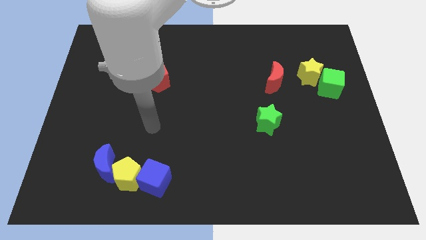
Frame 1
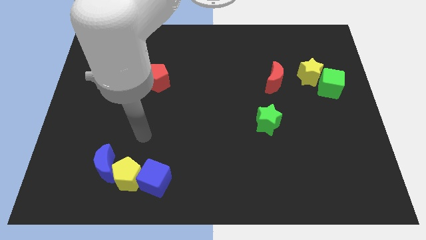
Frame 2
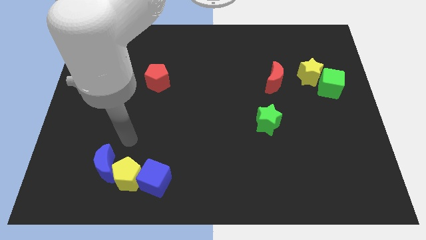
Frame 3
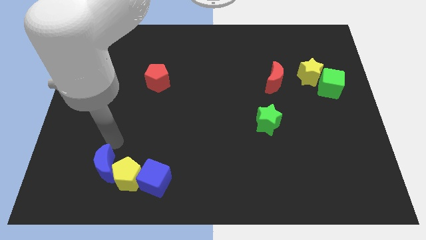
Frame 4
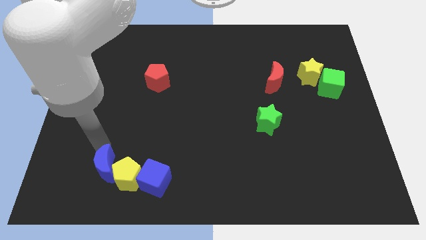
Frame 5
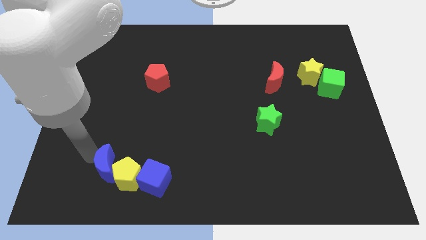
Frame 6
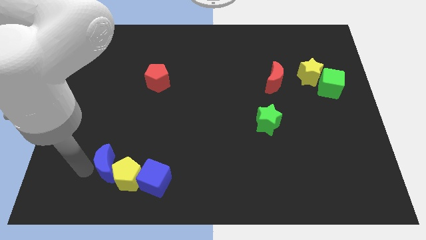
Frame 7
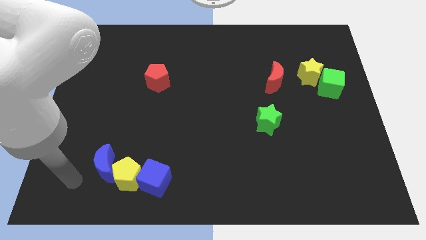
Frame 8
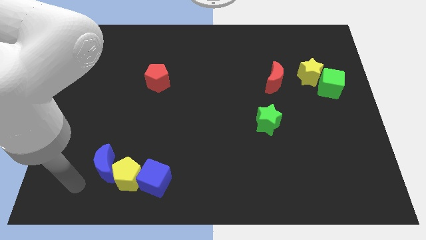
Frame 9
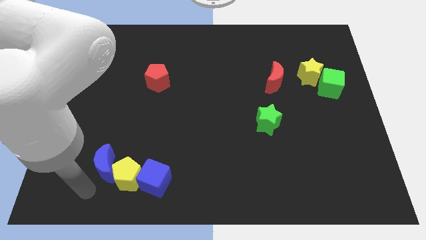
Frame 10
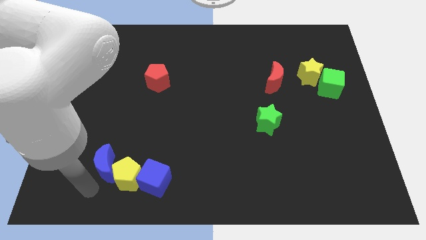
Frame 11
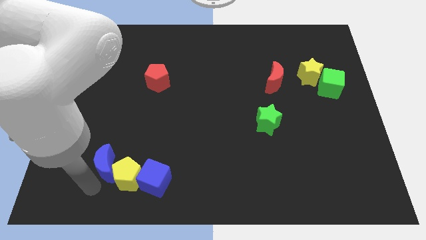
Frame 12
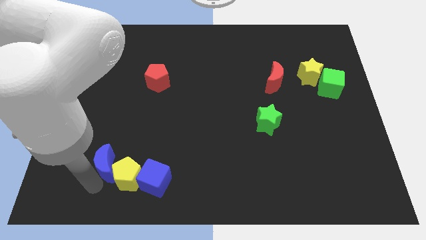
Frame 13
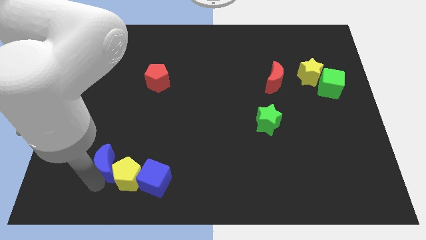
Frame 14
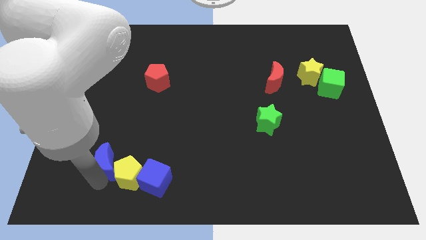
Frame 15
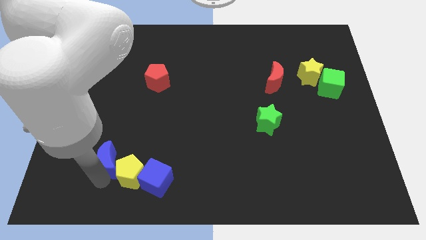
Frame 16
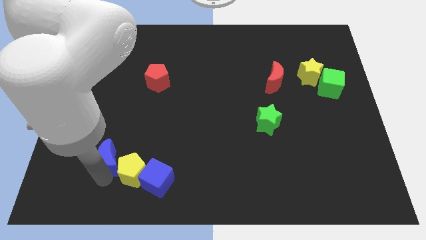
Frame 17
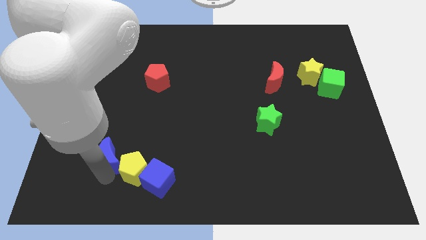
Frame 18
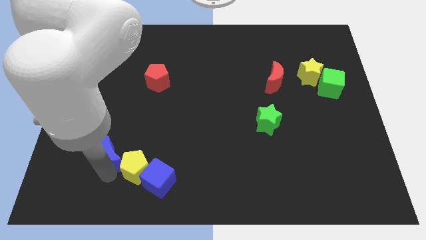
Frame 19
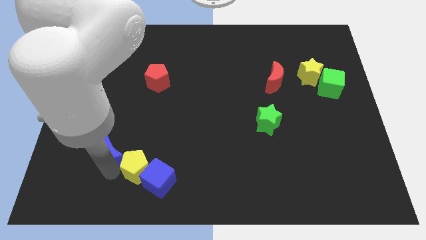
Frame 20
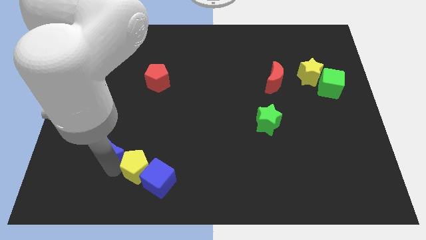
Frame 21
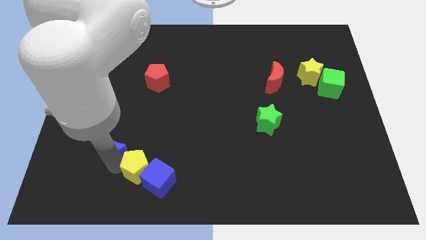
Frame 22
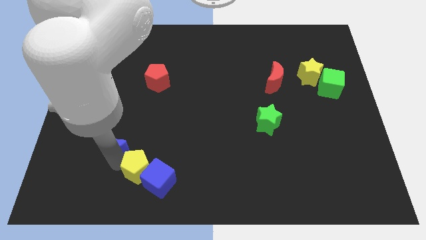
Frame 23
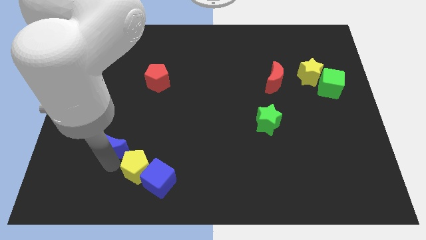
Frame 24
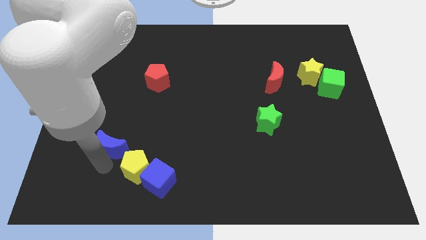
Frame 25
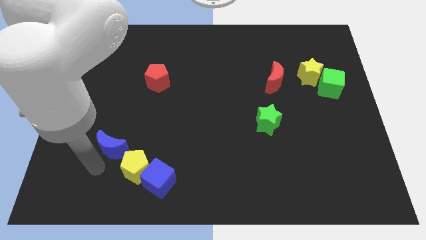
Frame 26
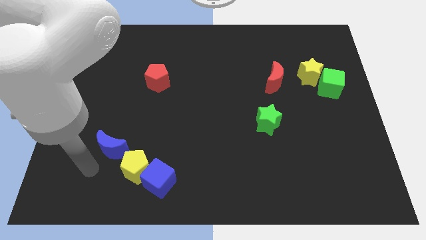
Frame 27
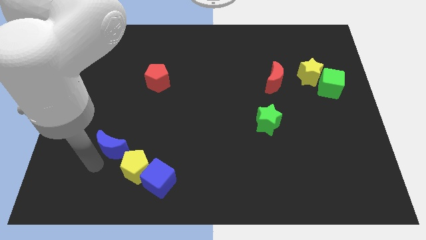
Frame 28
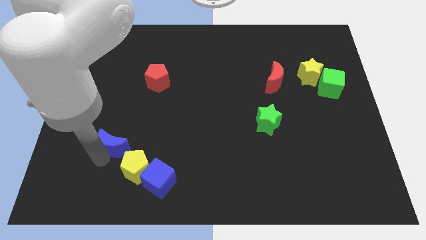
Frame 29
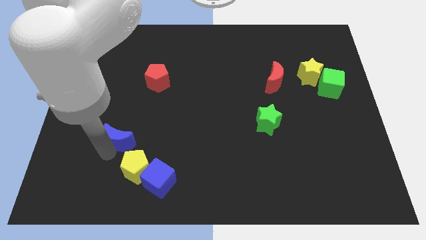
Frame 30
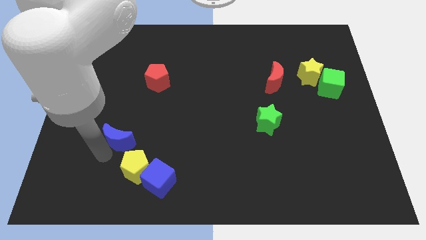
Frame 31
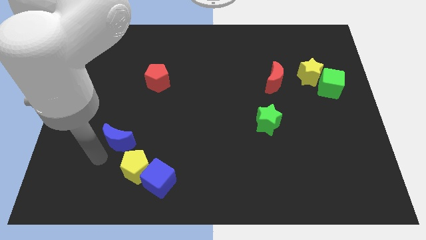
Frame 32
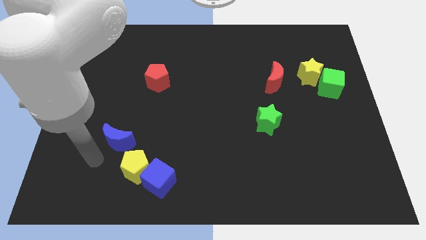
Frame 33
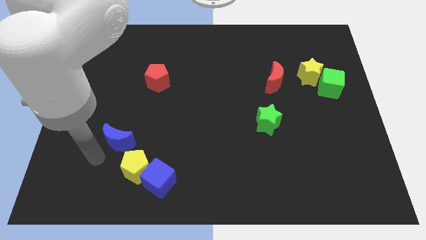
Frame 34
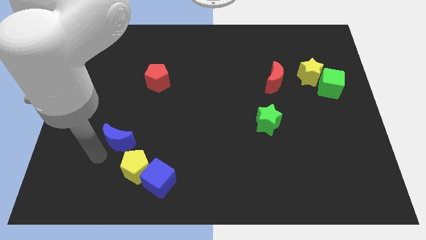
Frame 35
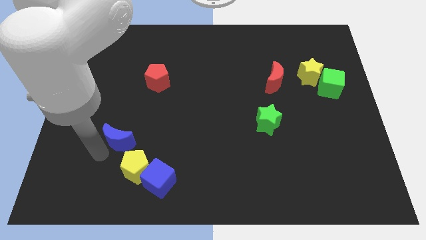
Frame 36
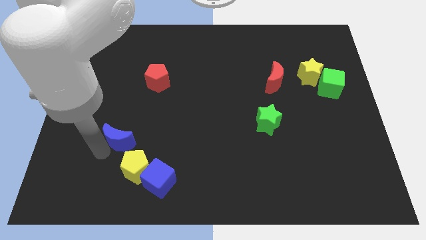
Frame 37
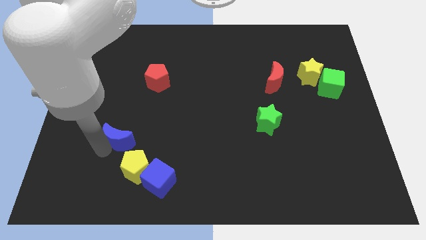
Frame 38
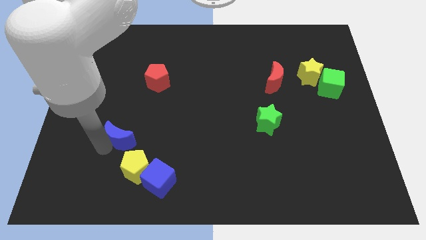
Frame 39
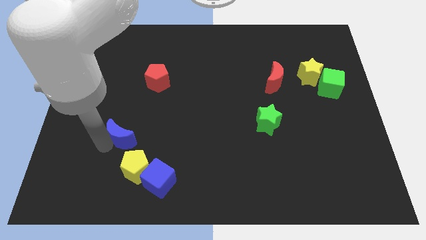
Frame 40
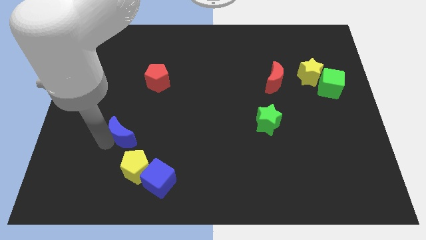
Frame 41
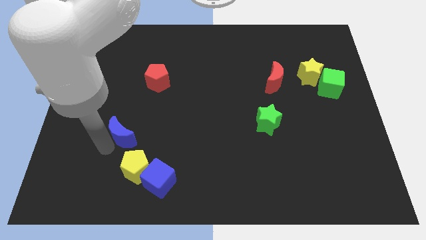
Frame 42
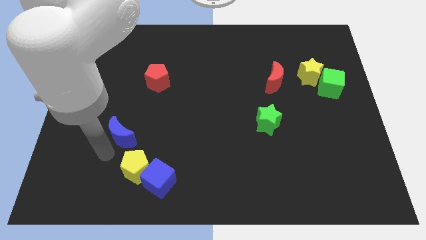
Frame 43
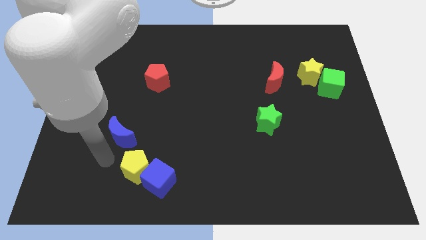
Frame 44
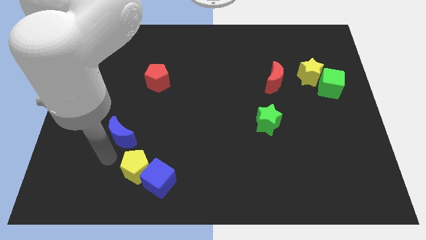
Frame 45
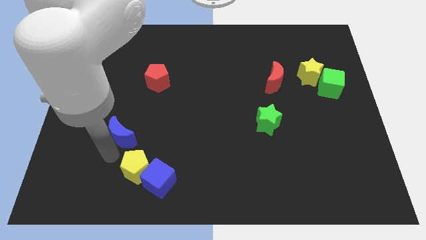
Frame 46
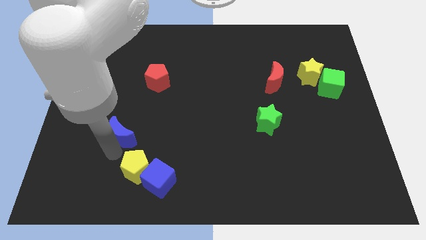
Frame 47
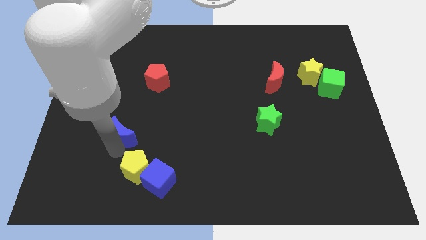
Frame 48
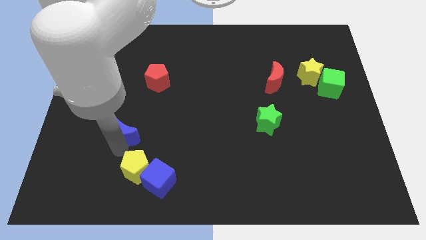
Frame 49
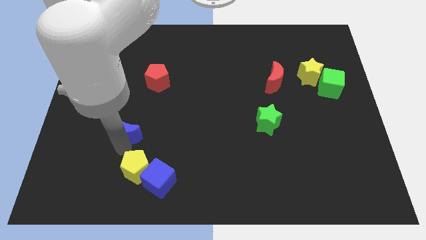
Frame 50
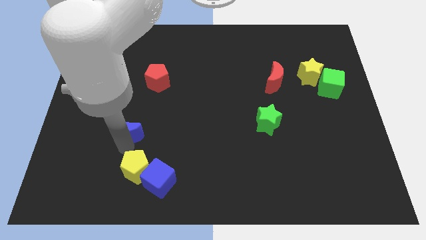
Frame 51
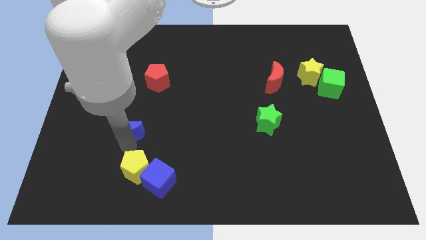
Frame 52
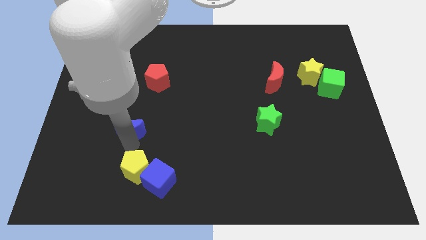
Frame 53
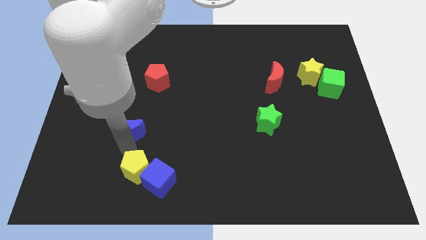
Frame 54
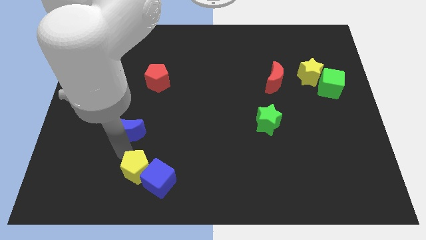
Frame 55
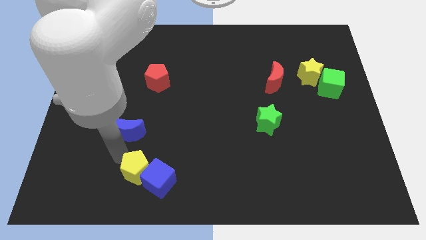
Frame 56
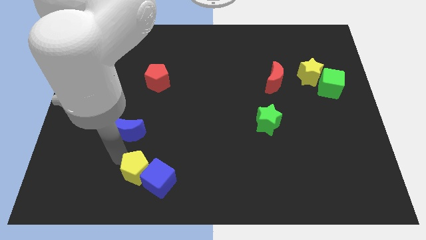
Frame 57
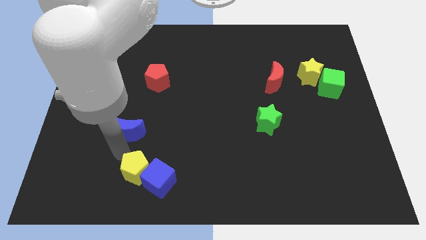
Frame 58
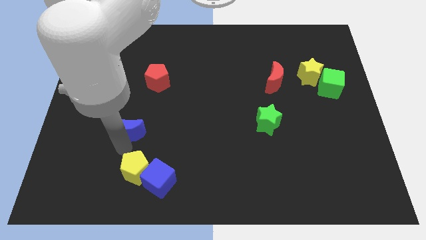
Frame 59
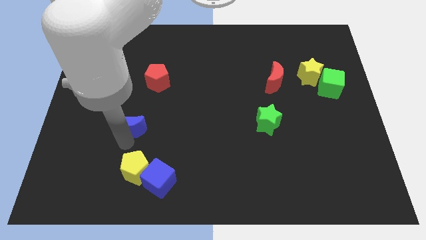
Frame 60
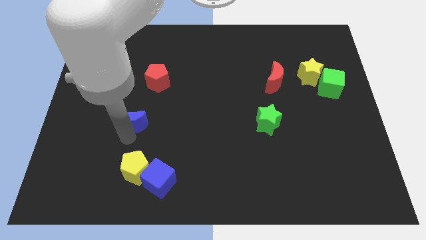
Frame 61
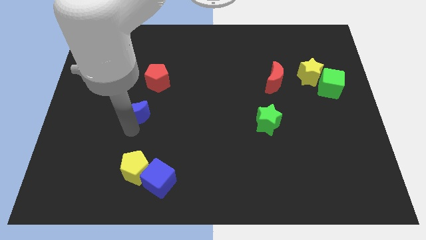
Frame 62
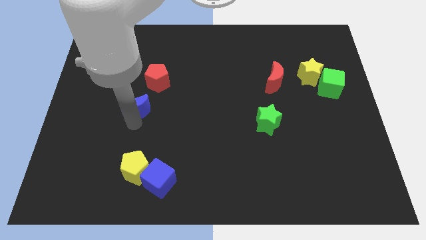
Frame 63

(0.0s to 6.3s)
move the blue moon to the bottom left side of the red pentagon

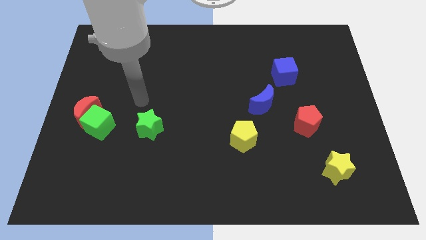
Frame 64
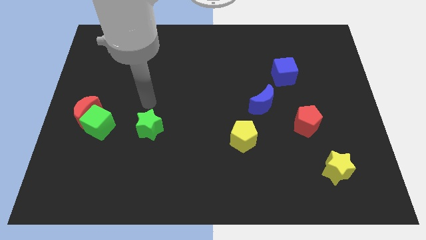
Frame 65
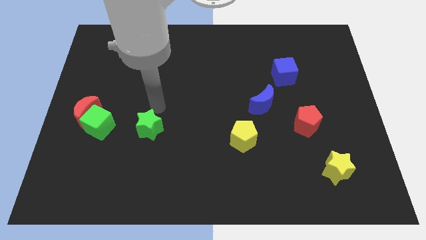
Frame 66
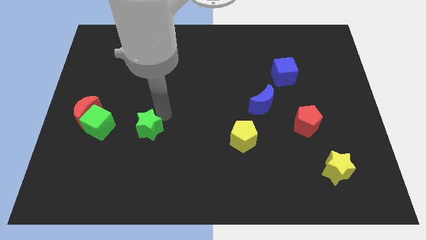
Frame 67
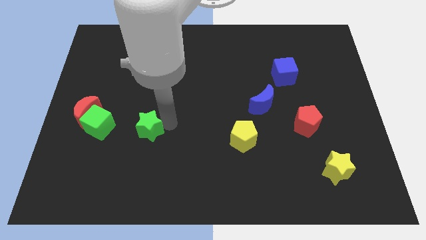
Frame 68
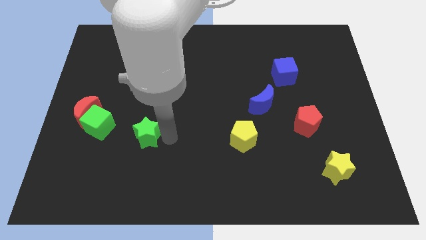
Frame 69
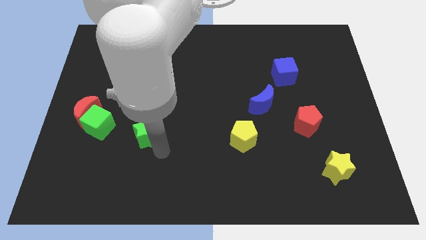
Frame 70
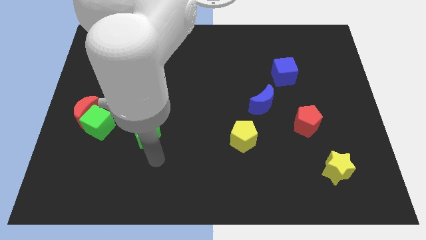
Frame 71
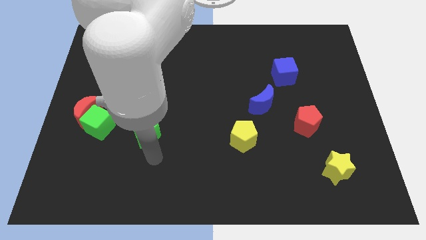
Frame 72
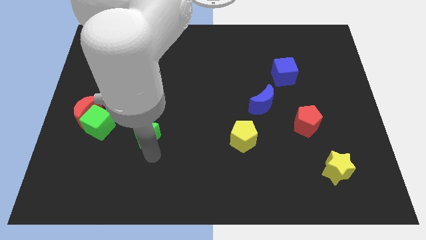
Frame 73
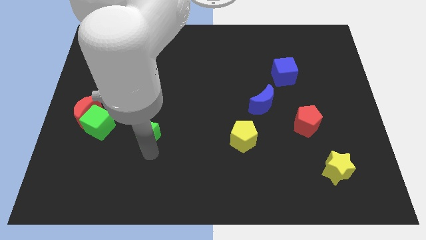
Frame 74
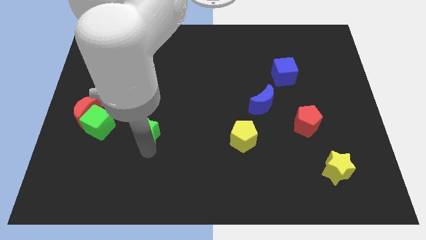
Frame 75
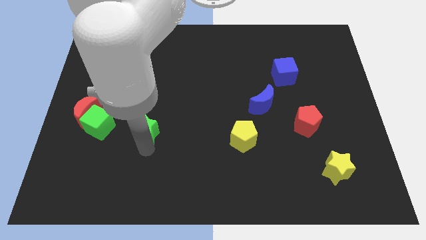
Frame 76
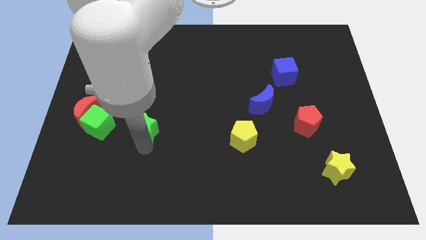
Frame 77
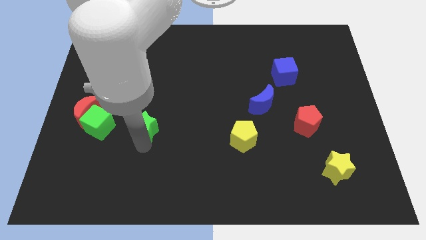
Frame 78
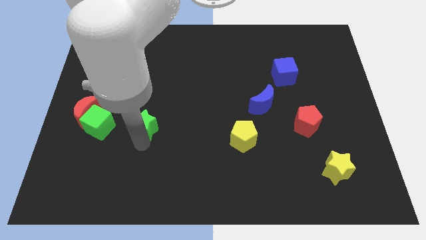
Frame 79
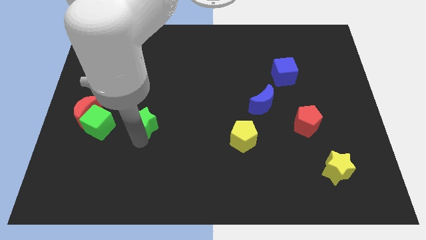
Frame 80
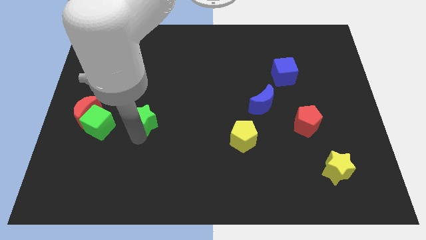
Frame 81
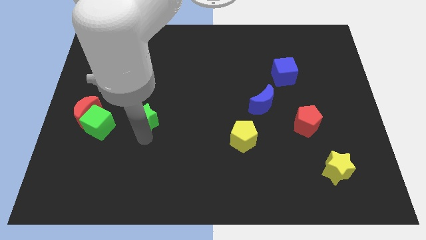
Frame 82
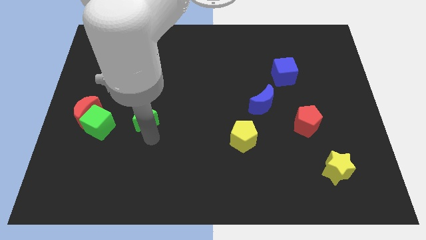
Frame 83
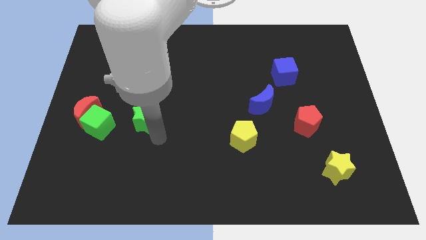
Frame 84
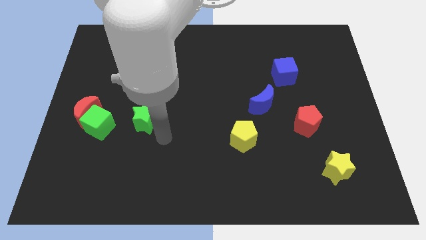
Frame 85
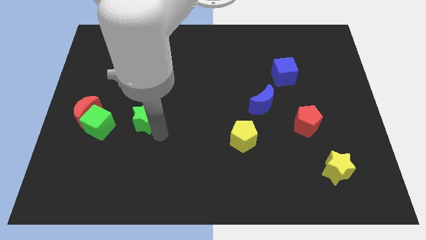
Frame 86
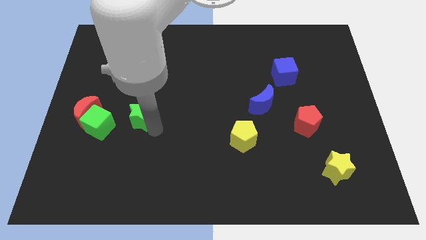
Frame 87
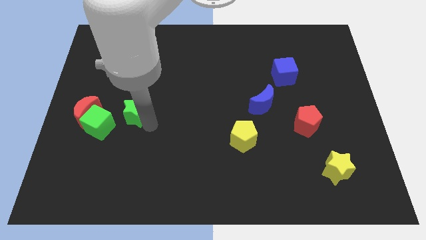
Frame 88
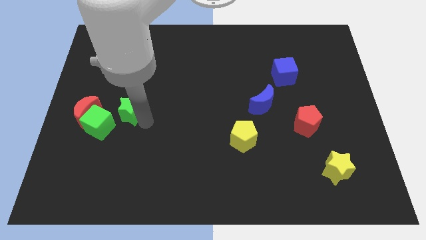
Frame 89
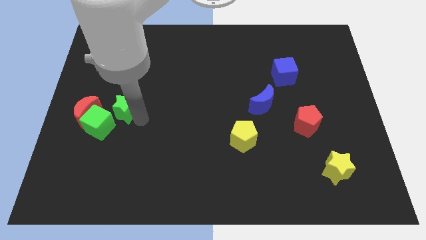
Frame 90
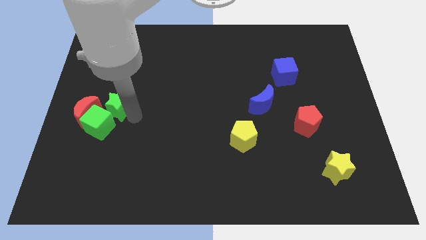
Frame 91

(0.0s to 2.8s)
put the green star to the top right of the red moon
